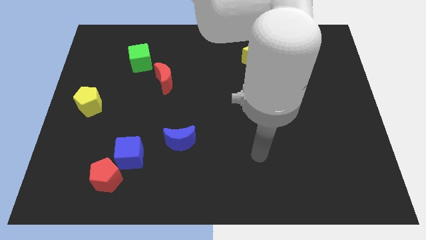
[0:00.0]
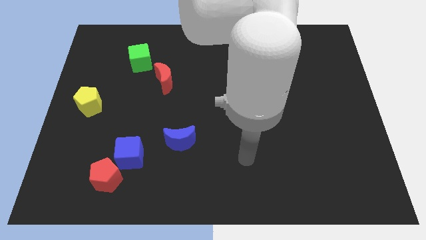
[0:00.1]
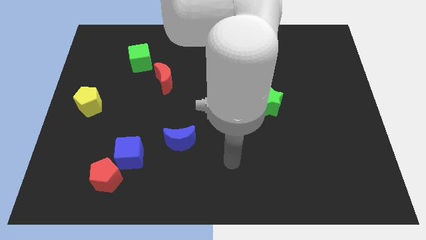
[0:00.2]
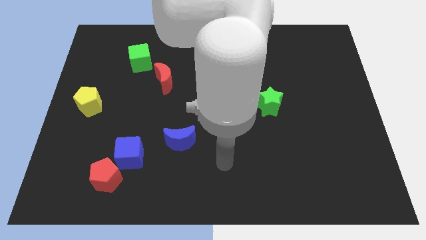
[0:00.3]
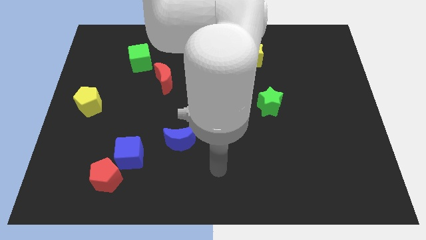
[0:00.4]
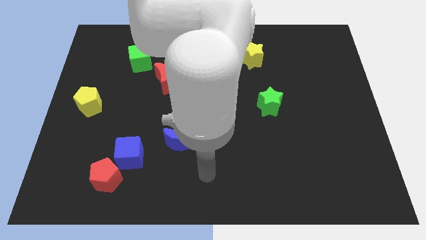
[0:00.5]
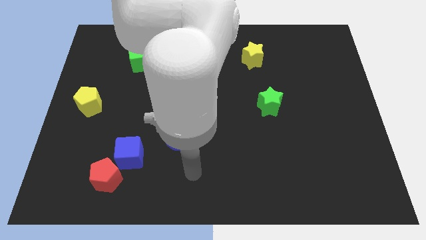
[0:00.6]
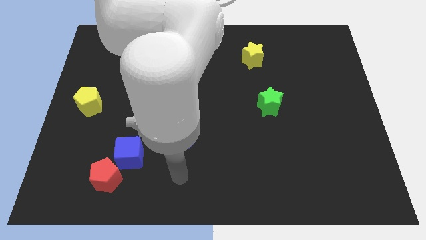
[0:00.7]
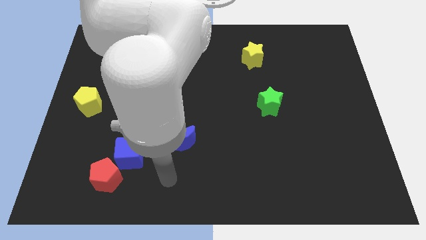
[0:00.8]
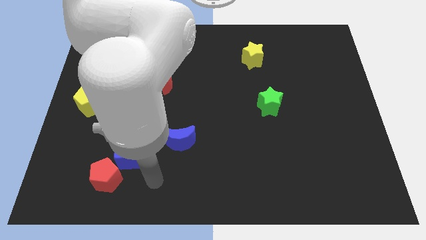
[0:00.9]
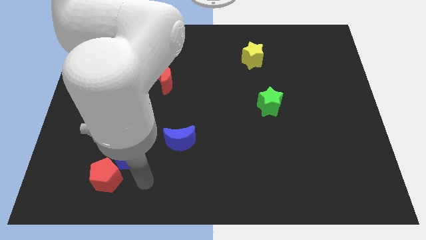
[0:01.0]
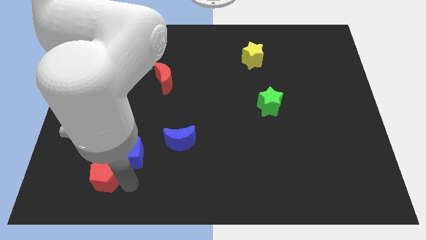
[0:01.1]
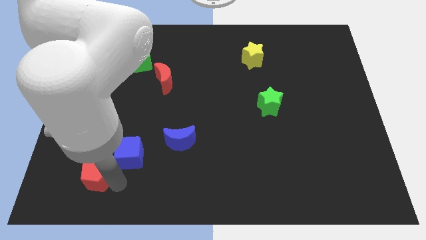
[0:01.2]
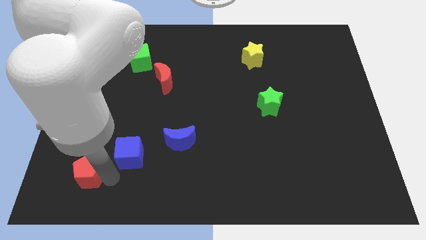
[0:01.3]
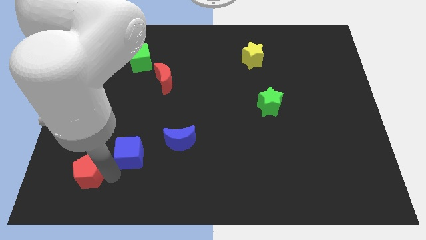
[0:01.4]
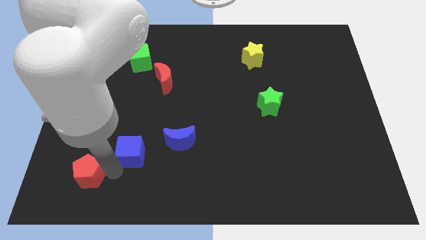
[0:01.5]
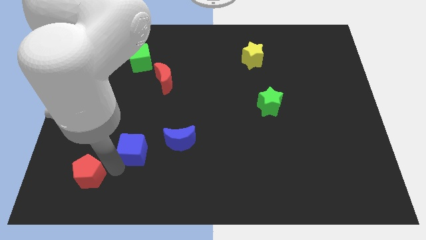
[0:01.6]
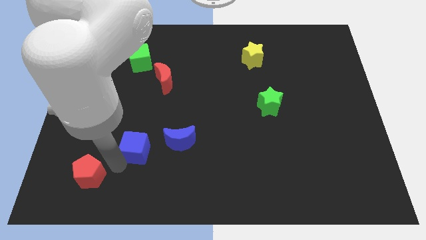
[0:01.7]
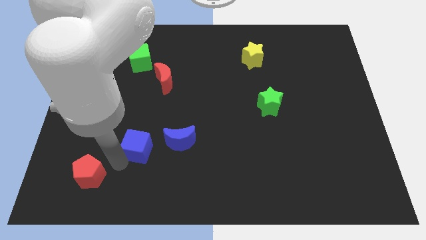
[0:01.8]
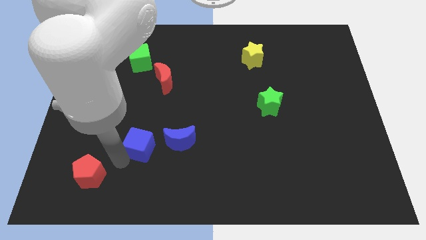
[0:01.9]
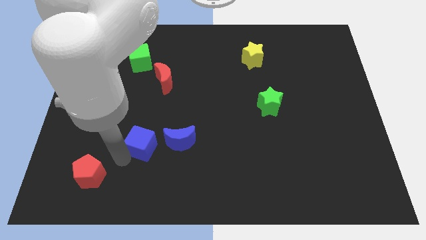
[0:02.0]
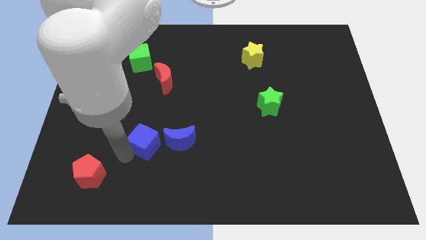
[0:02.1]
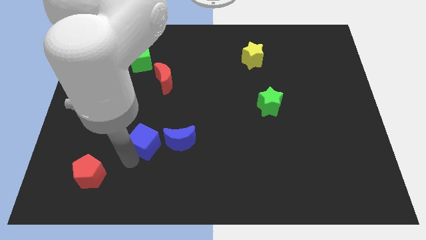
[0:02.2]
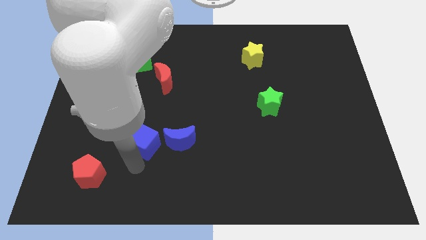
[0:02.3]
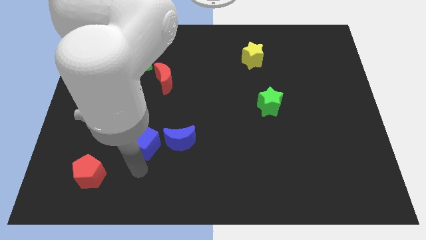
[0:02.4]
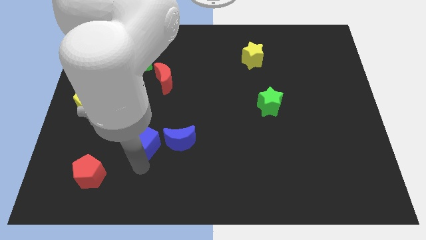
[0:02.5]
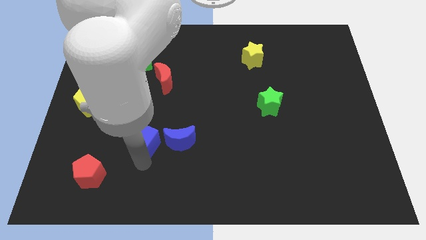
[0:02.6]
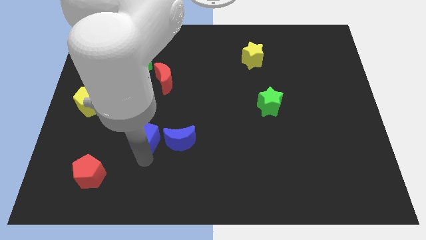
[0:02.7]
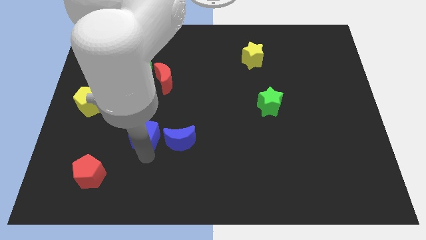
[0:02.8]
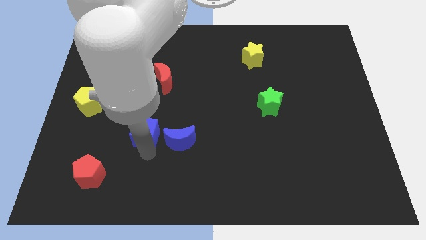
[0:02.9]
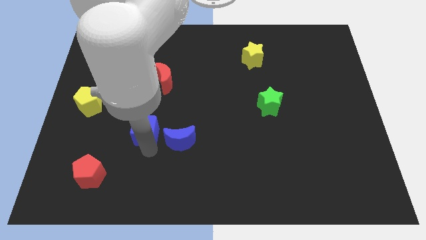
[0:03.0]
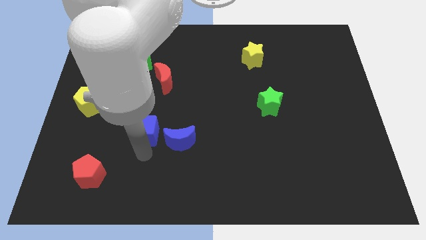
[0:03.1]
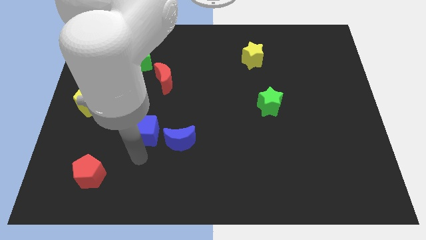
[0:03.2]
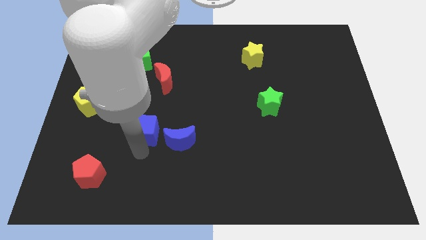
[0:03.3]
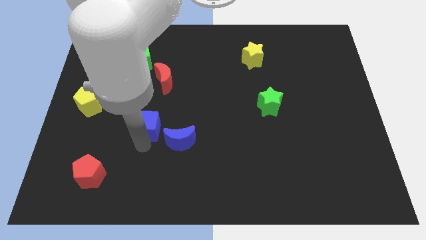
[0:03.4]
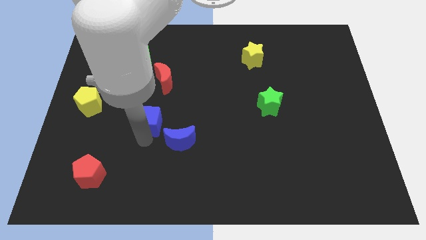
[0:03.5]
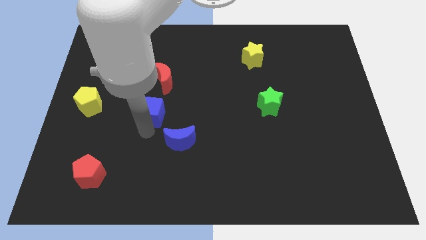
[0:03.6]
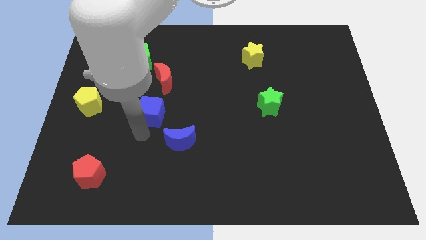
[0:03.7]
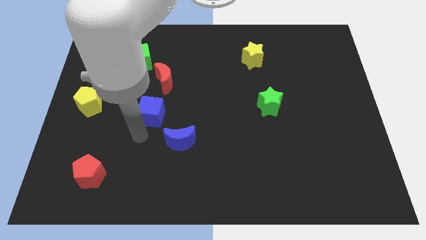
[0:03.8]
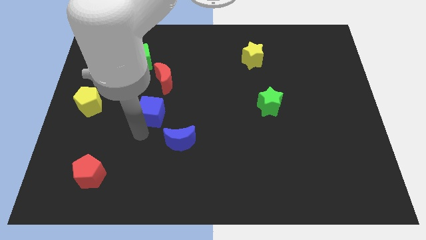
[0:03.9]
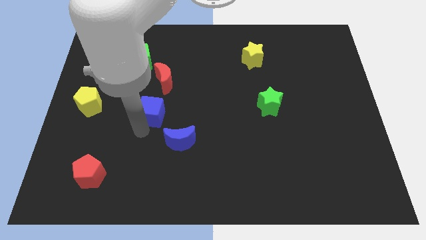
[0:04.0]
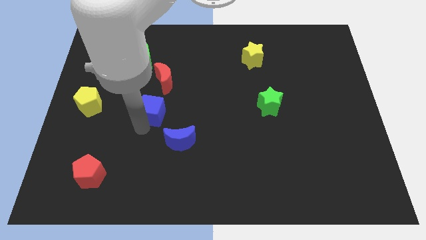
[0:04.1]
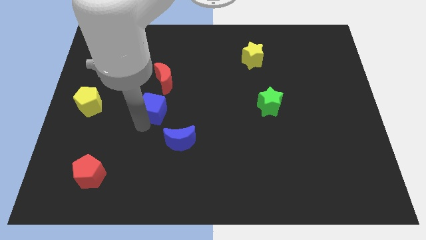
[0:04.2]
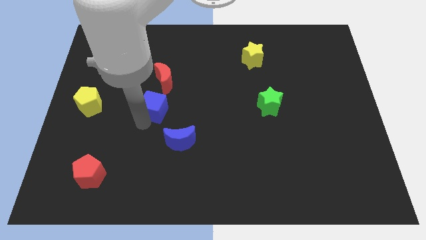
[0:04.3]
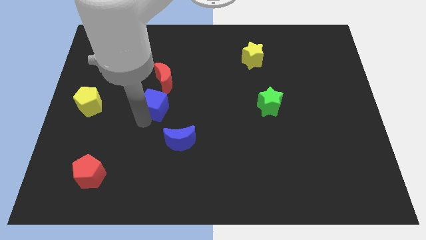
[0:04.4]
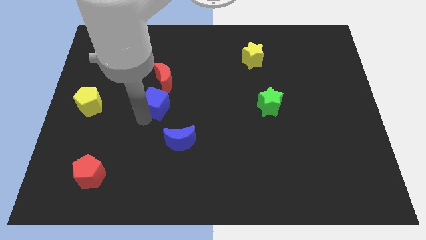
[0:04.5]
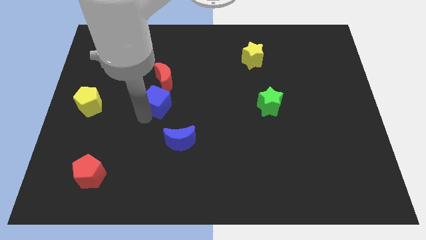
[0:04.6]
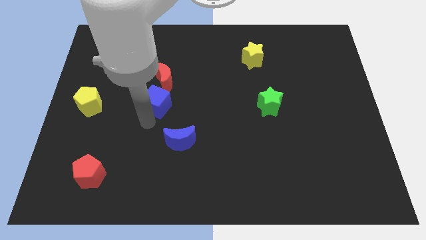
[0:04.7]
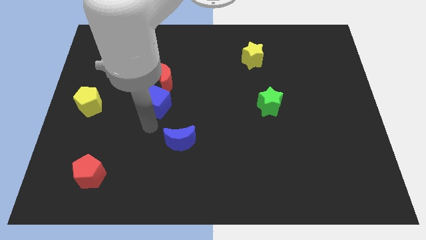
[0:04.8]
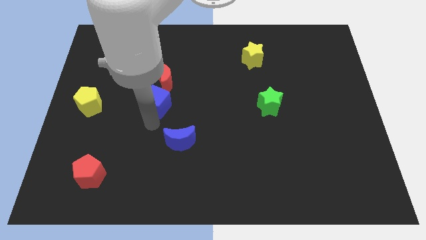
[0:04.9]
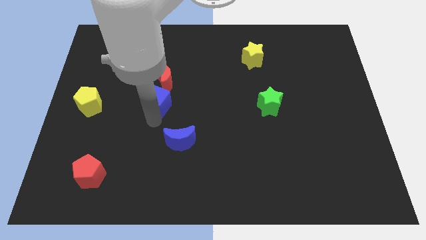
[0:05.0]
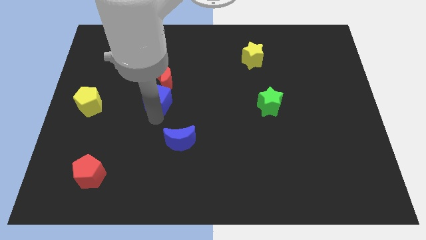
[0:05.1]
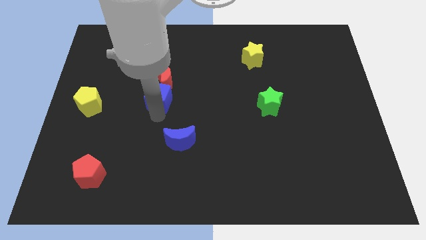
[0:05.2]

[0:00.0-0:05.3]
push the blue cube next to the red moon

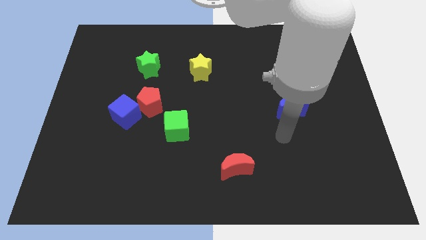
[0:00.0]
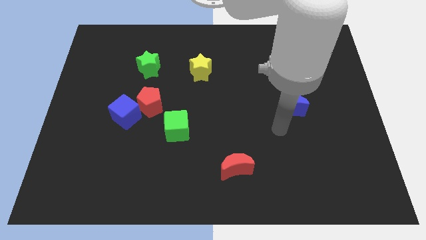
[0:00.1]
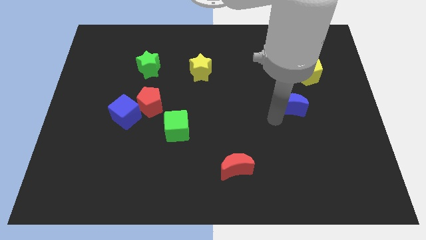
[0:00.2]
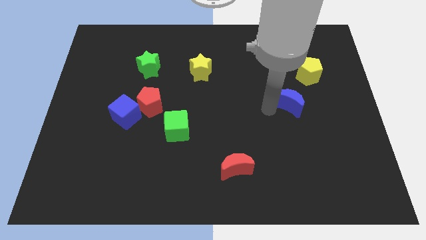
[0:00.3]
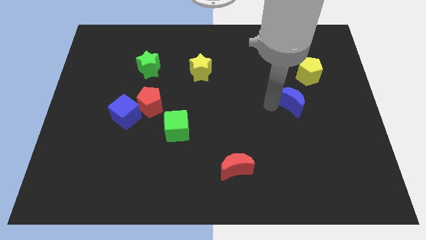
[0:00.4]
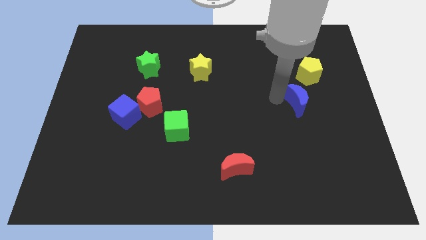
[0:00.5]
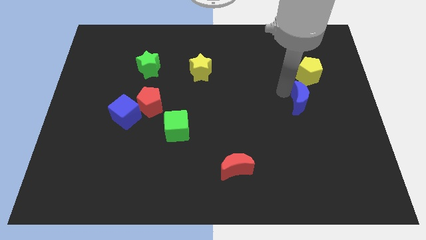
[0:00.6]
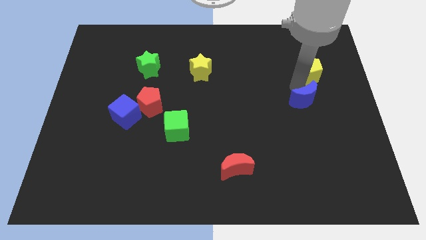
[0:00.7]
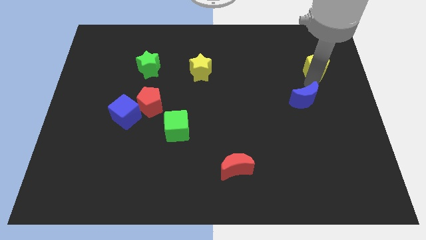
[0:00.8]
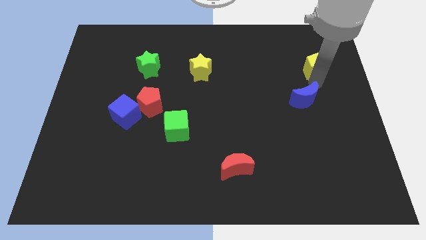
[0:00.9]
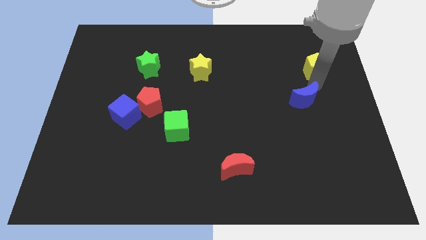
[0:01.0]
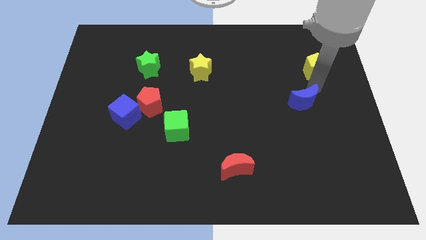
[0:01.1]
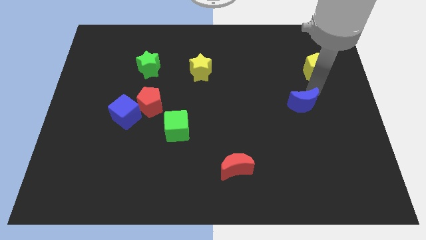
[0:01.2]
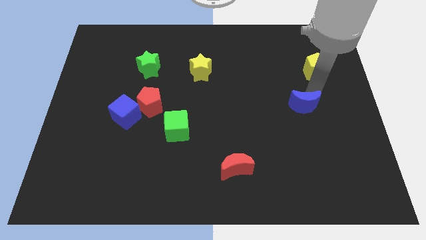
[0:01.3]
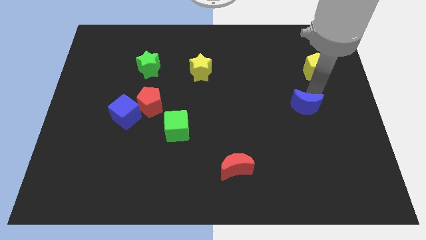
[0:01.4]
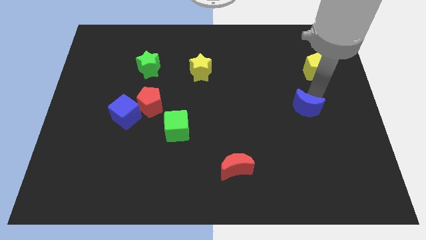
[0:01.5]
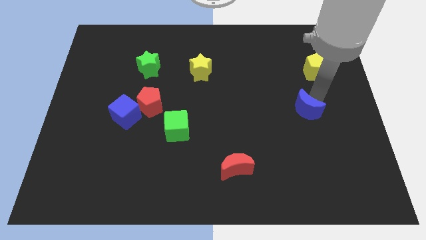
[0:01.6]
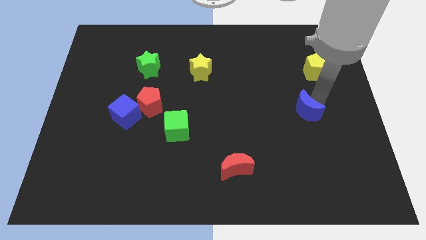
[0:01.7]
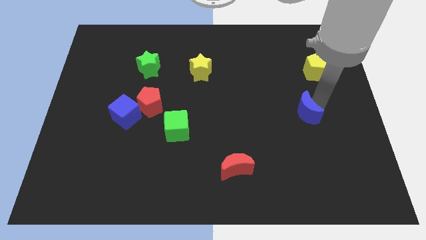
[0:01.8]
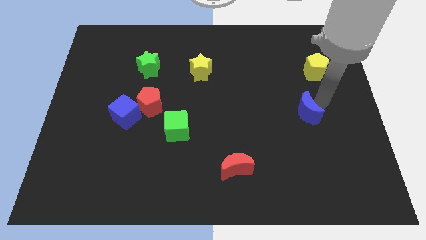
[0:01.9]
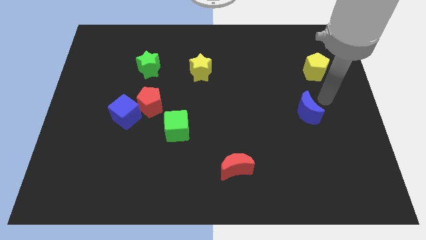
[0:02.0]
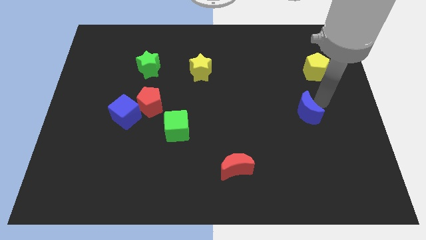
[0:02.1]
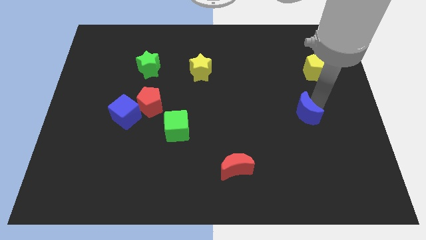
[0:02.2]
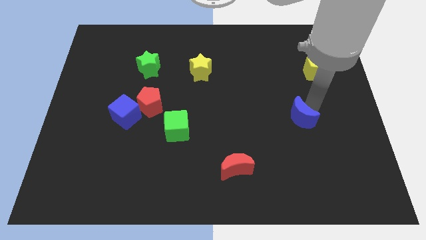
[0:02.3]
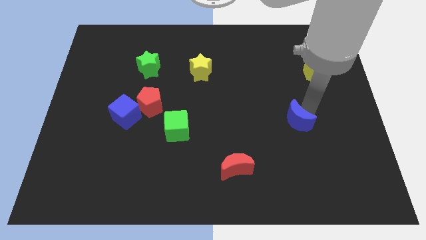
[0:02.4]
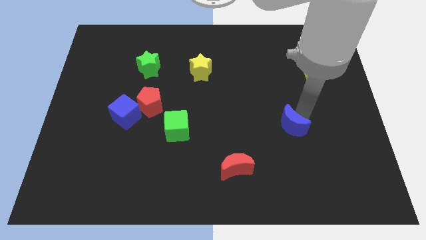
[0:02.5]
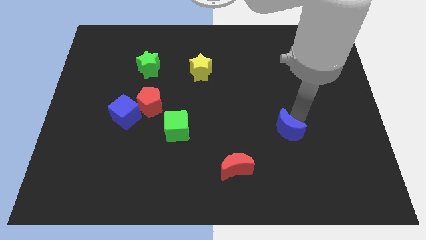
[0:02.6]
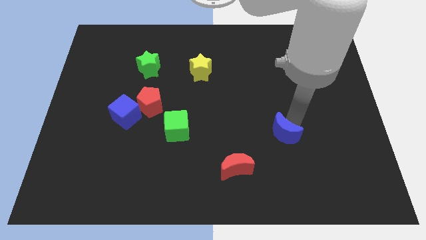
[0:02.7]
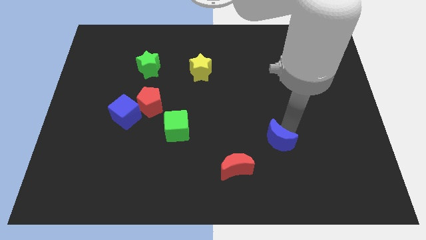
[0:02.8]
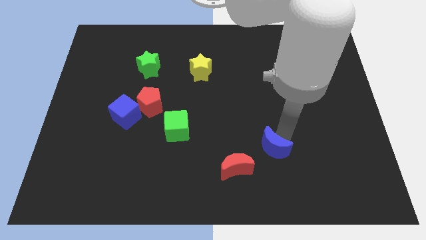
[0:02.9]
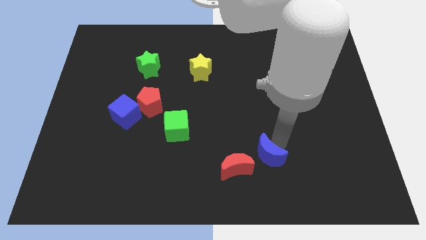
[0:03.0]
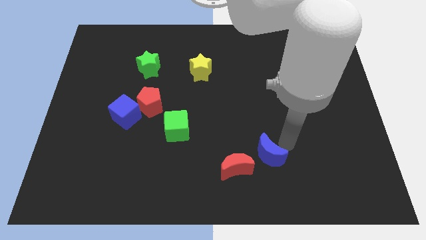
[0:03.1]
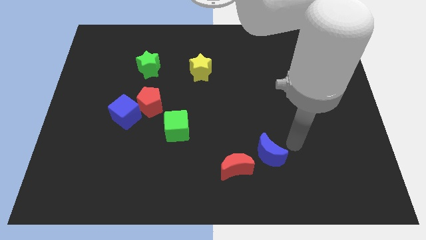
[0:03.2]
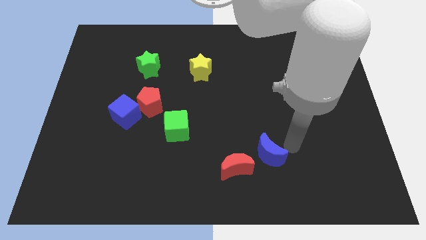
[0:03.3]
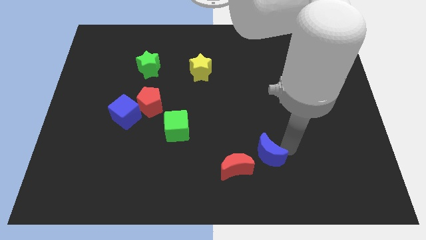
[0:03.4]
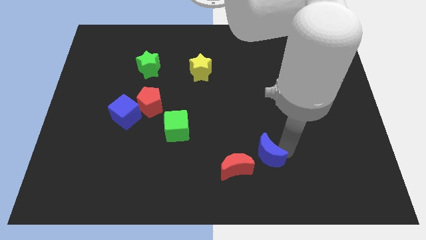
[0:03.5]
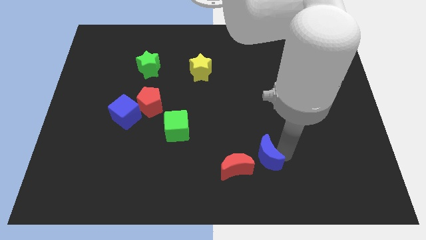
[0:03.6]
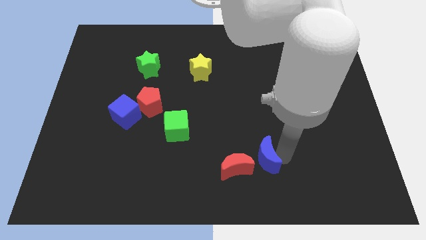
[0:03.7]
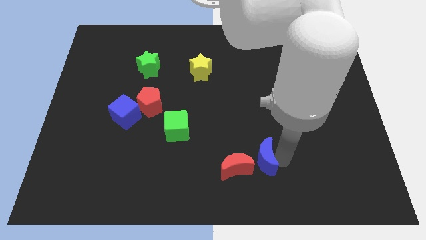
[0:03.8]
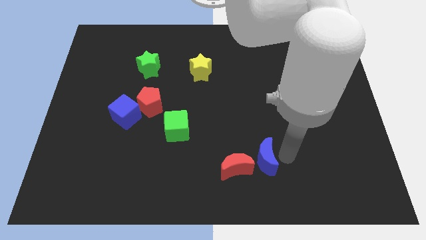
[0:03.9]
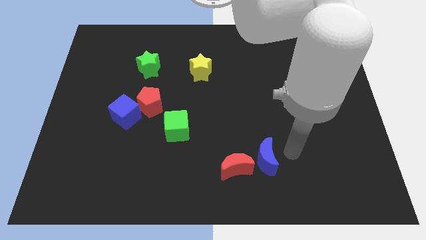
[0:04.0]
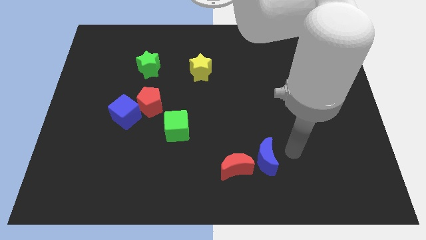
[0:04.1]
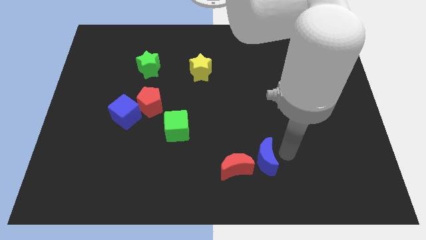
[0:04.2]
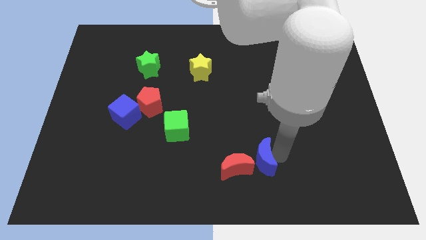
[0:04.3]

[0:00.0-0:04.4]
move the blue moon towards the red moon
